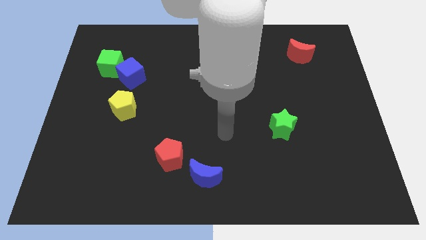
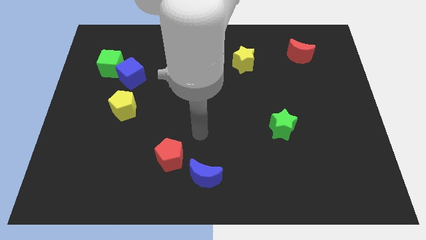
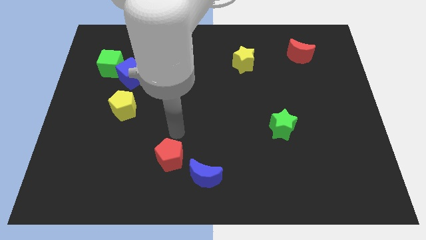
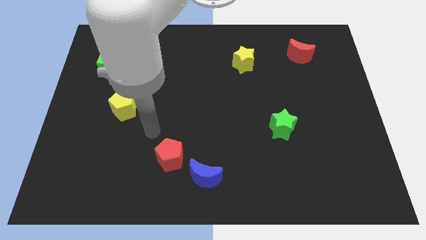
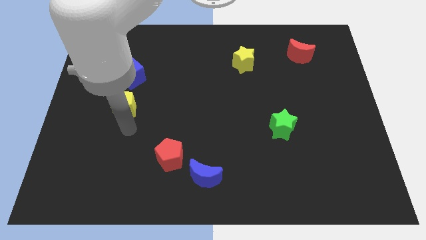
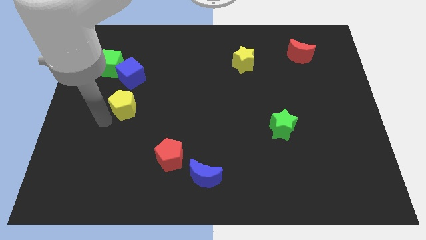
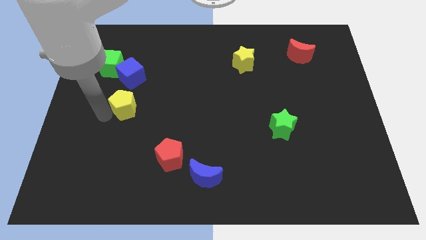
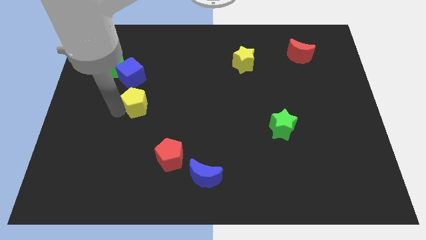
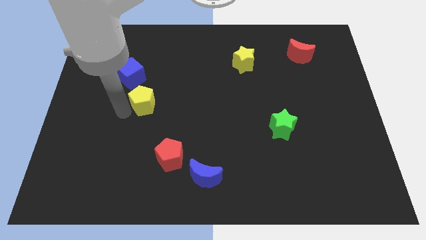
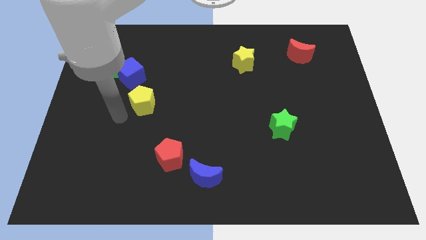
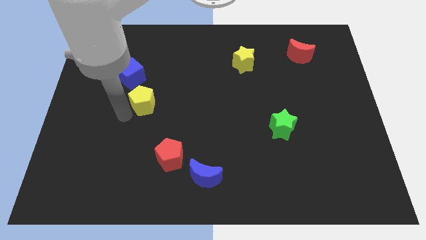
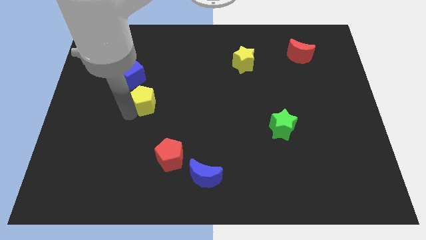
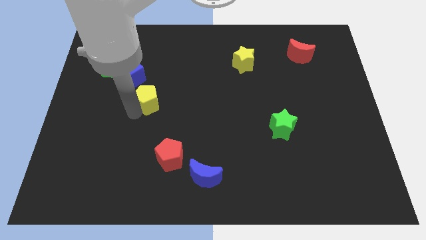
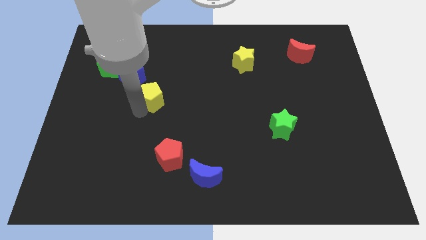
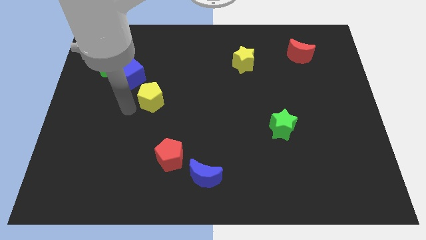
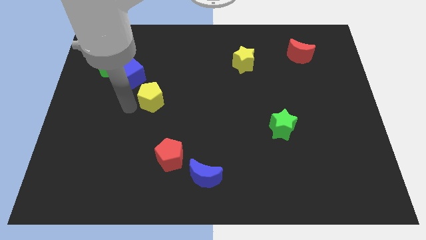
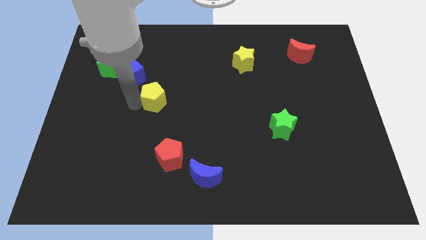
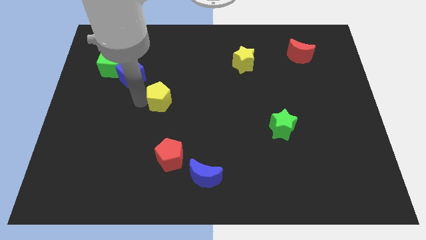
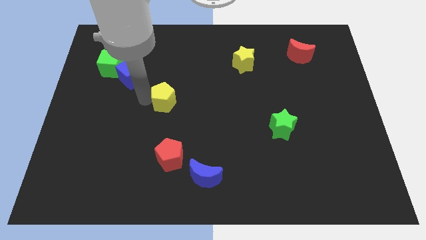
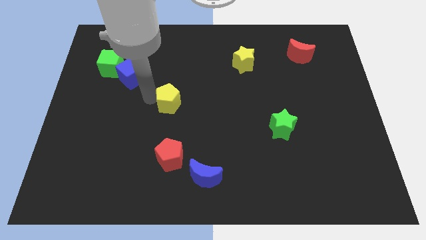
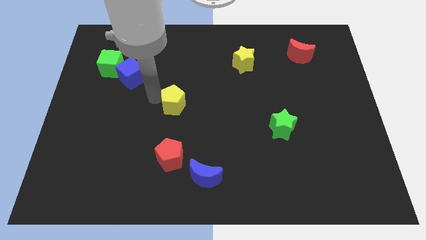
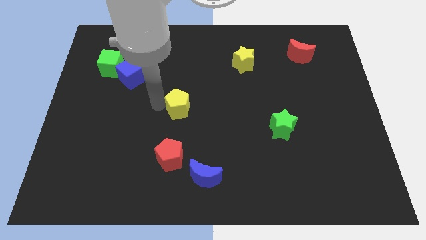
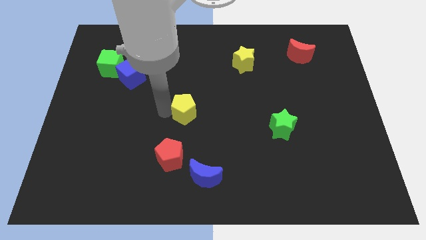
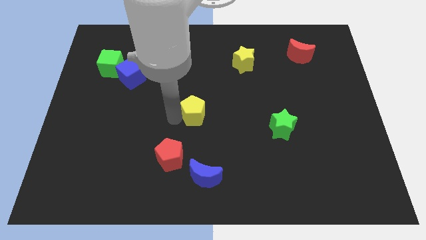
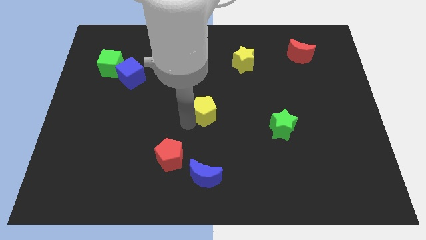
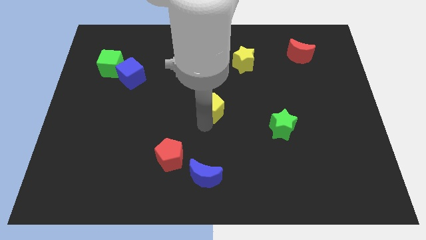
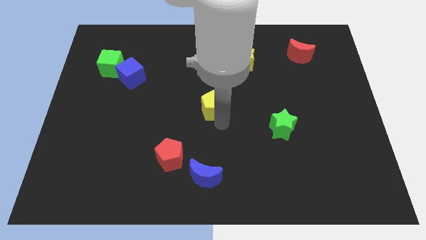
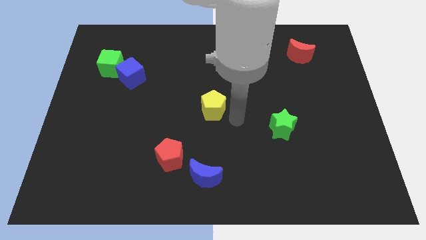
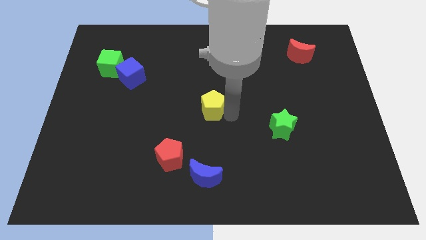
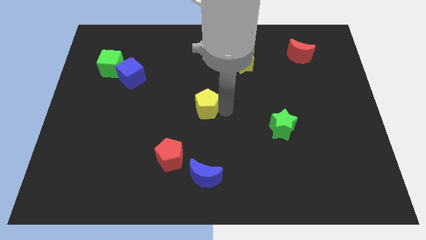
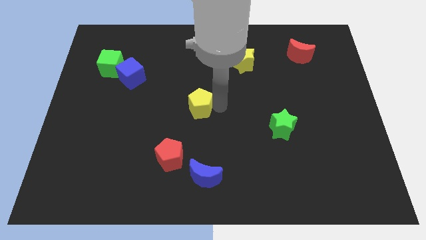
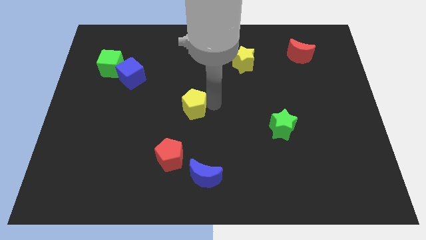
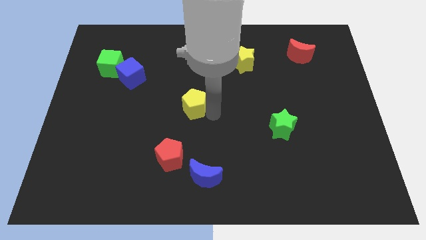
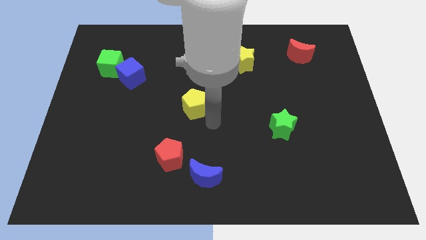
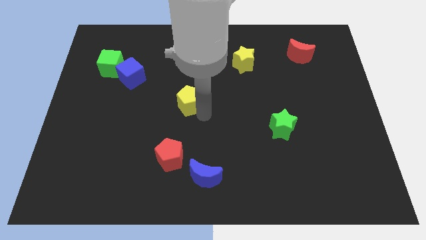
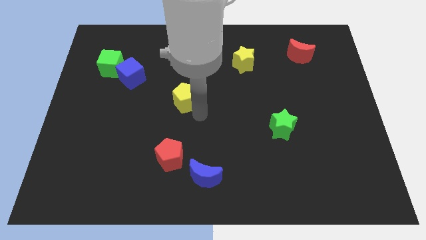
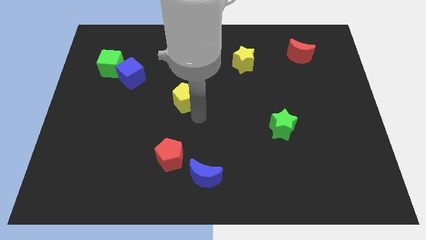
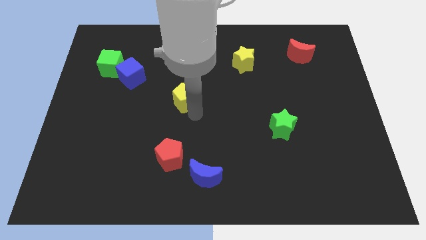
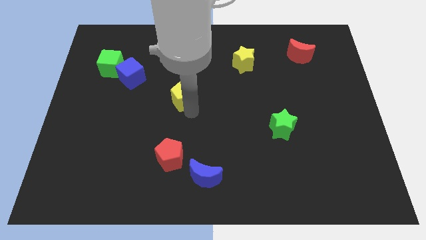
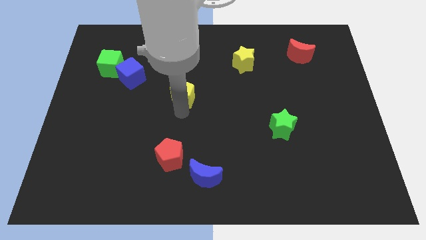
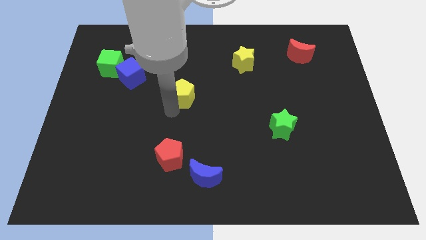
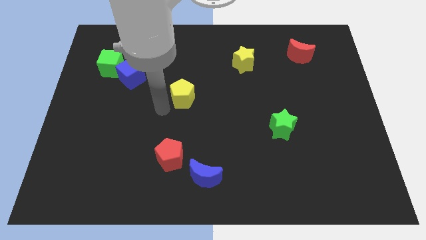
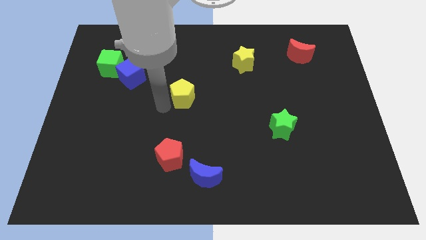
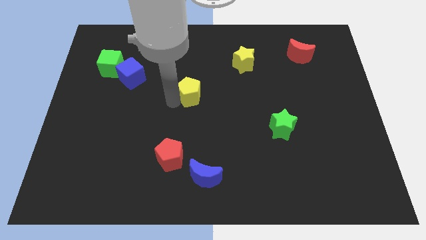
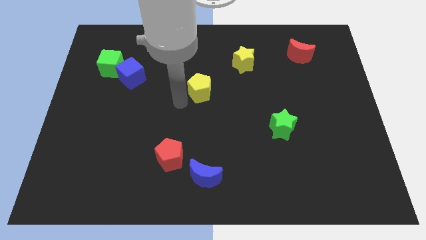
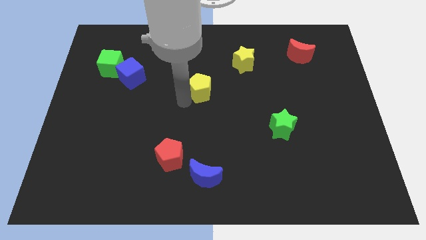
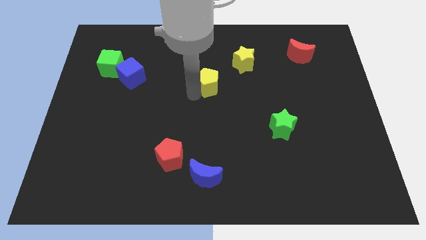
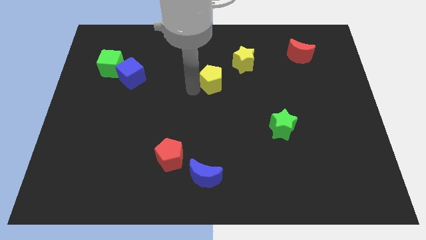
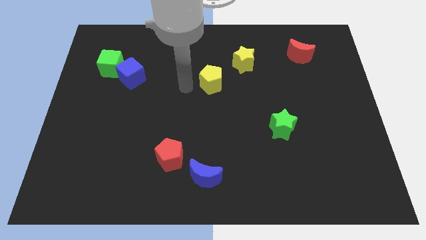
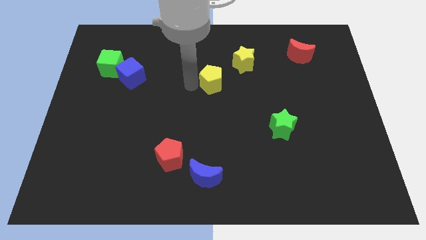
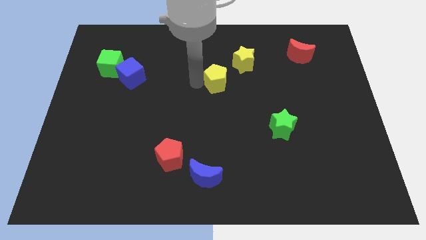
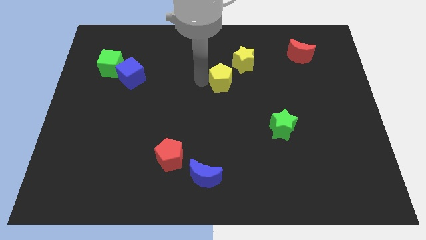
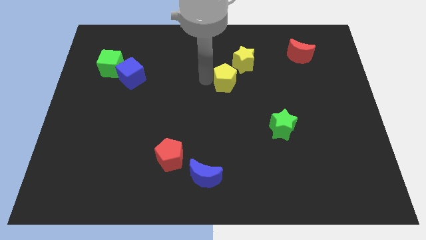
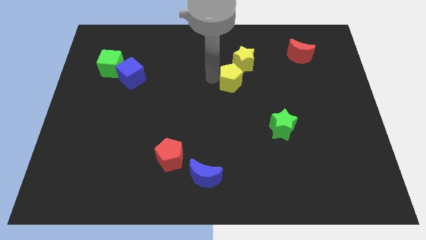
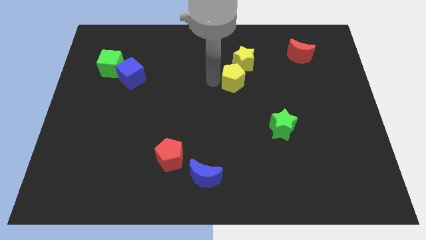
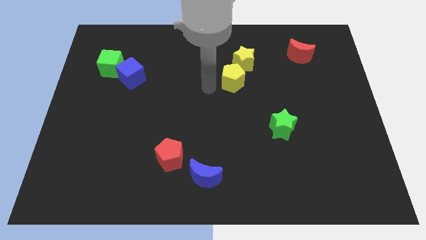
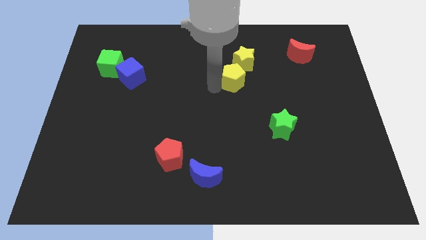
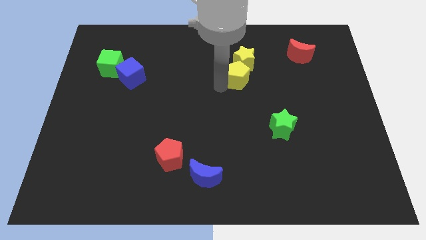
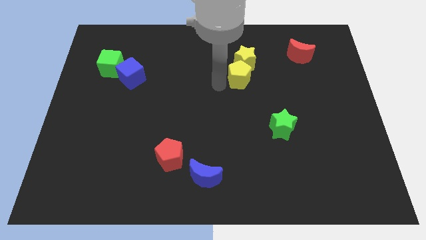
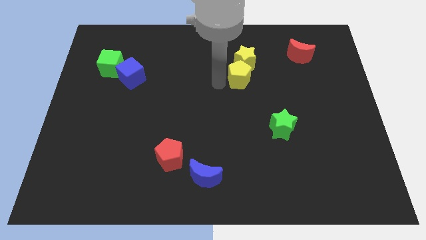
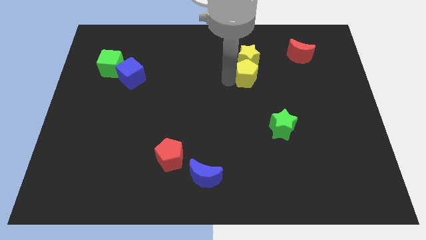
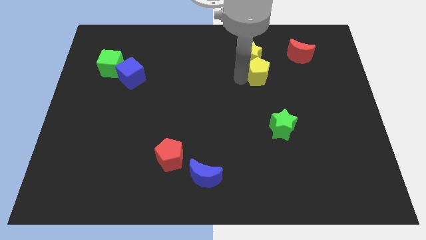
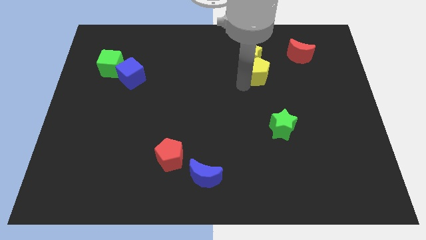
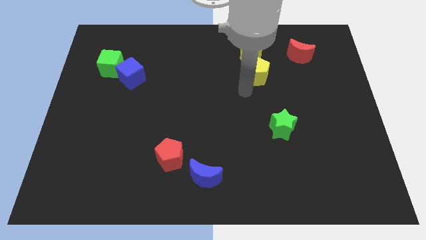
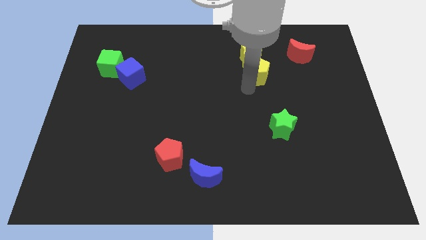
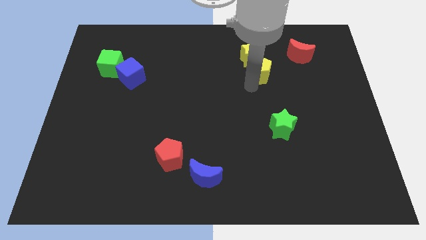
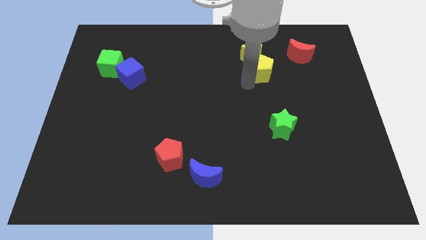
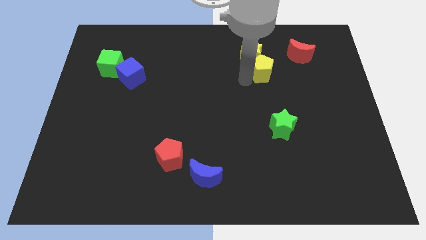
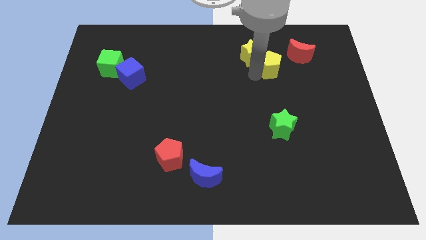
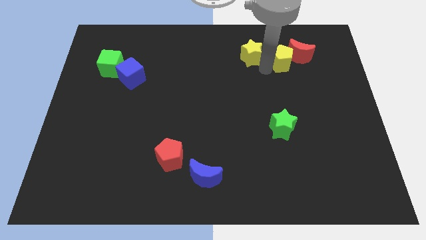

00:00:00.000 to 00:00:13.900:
move the yellow pentagon next to the red moon

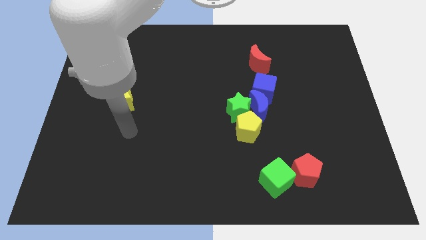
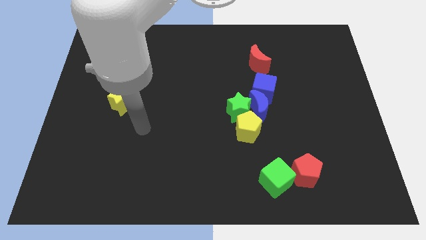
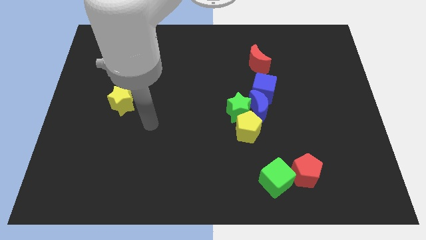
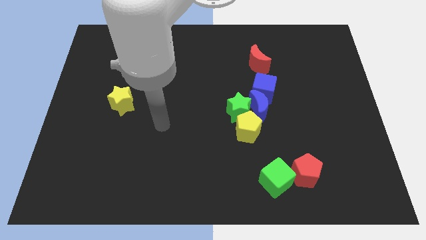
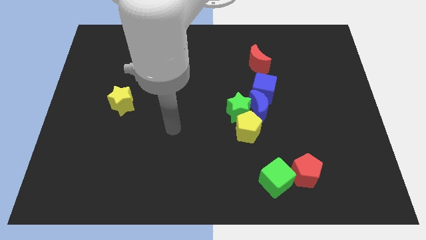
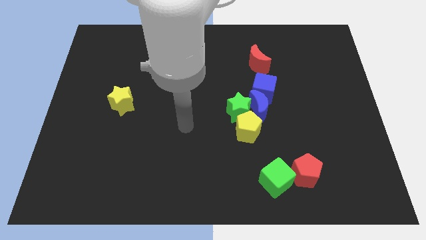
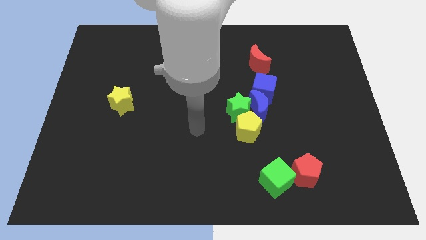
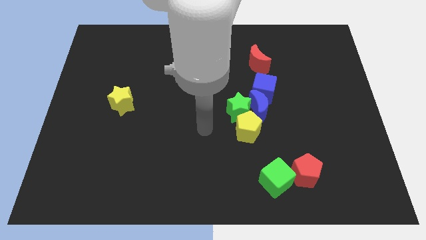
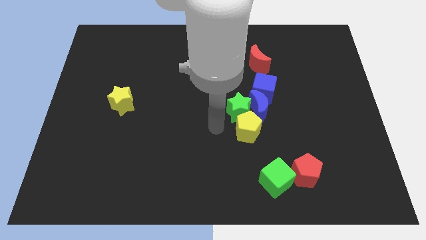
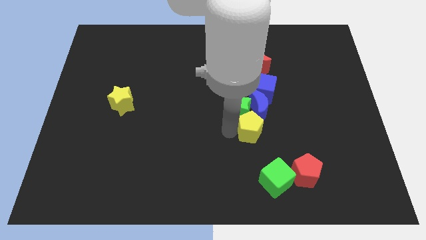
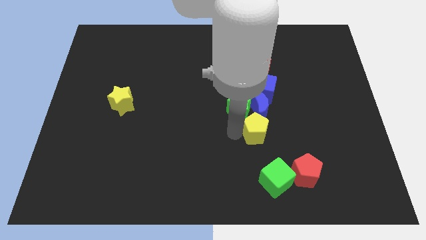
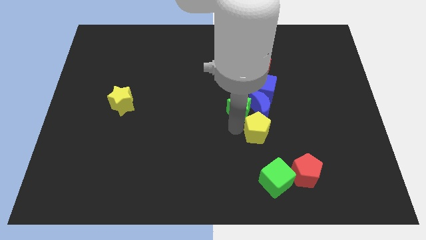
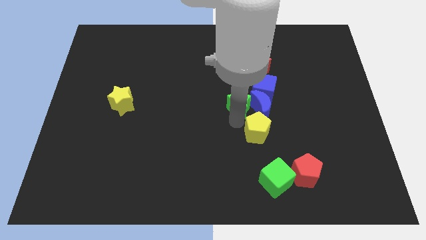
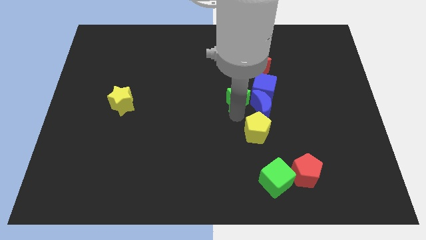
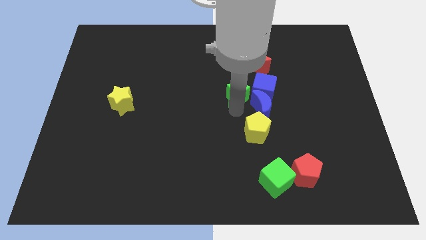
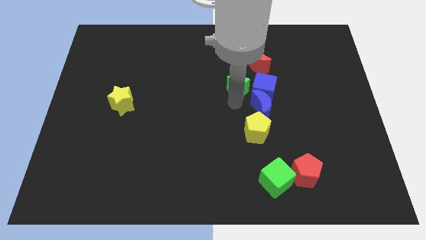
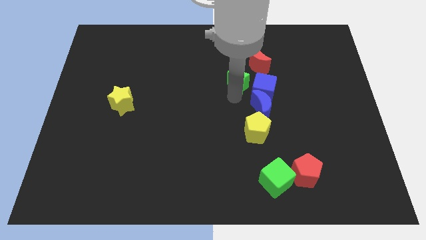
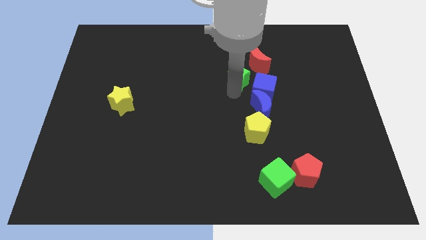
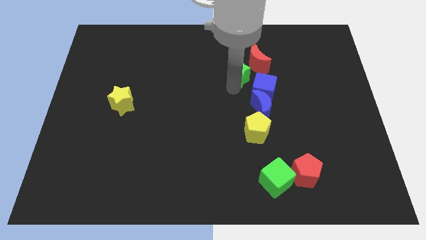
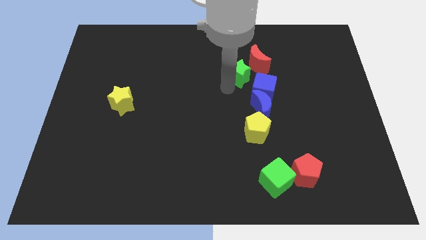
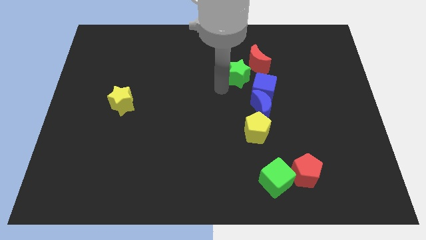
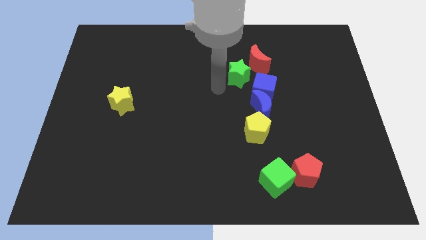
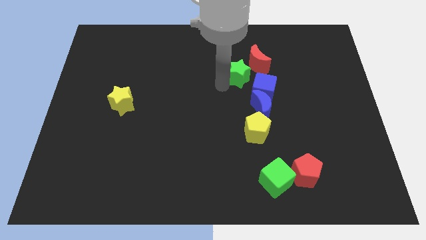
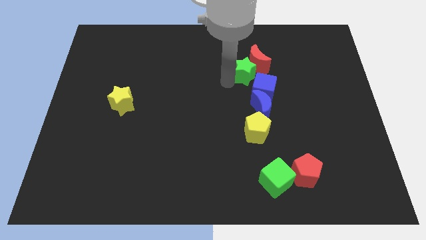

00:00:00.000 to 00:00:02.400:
put the green star towards the red moon
